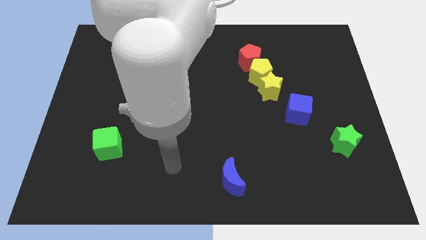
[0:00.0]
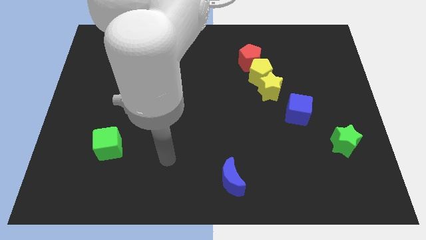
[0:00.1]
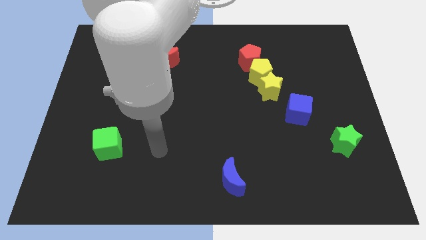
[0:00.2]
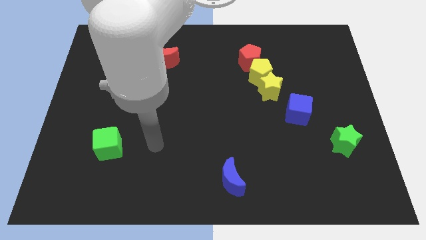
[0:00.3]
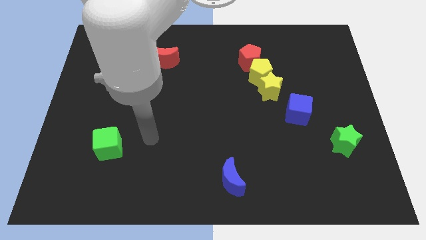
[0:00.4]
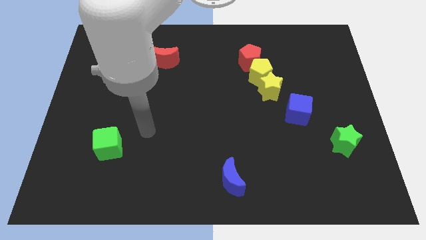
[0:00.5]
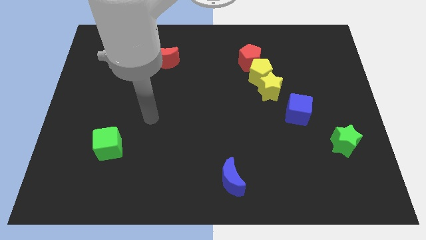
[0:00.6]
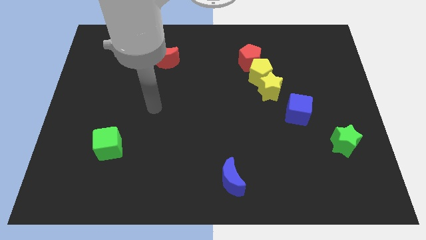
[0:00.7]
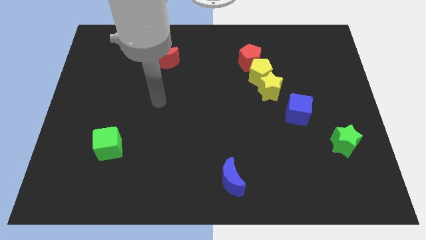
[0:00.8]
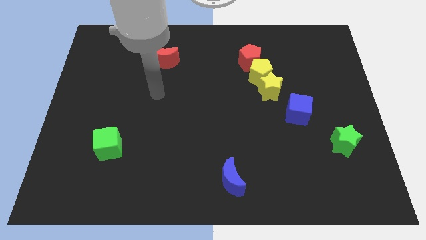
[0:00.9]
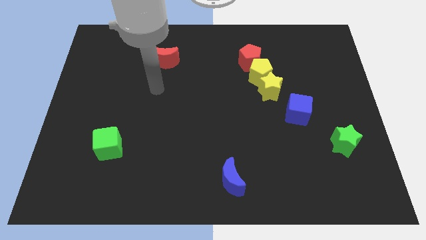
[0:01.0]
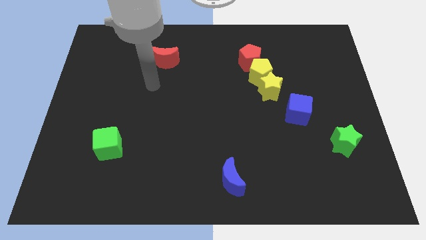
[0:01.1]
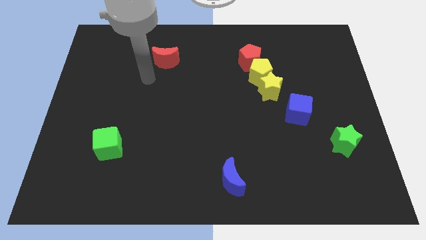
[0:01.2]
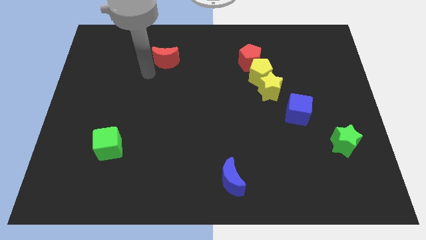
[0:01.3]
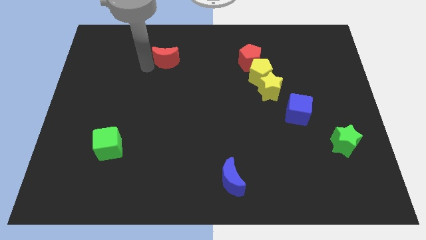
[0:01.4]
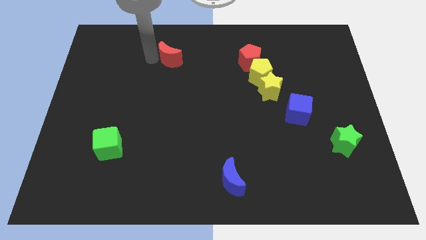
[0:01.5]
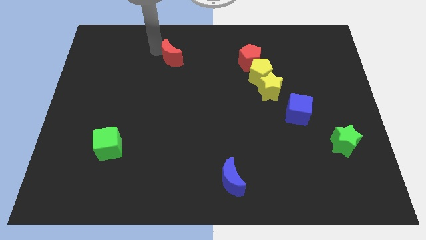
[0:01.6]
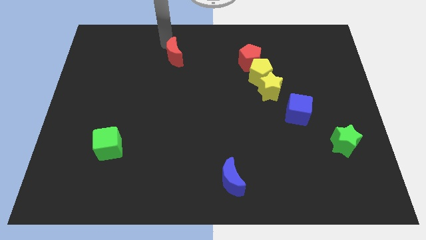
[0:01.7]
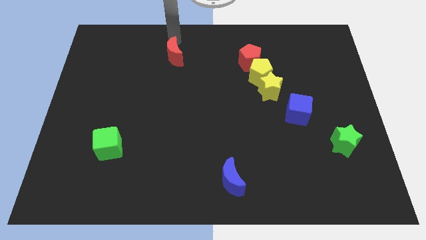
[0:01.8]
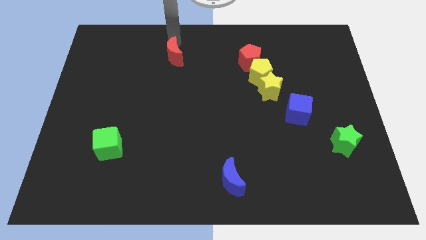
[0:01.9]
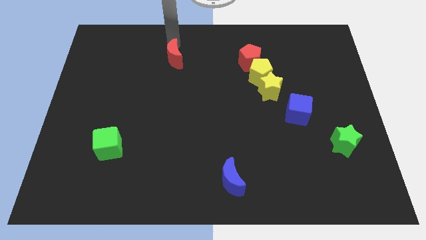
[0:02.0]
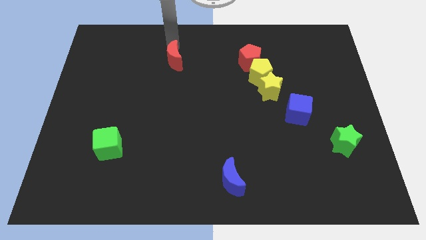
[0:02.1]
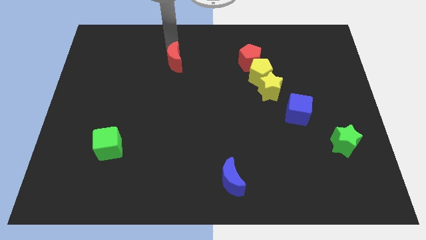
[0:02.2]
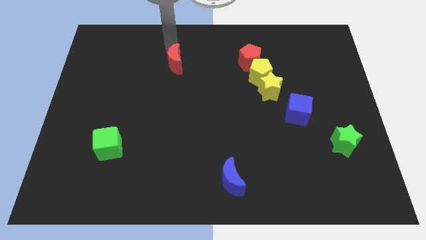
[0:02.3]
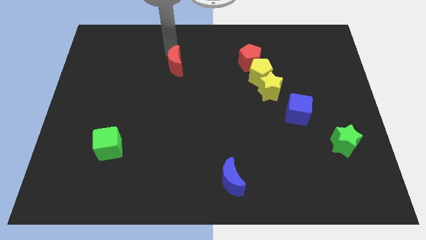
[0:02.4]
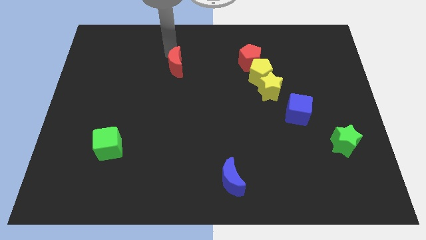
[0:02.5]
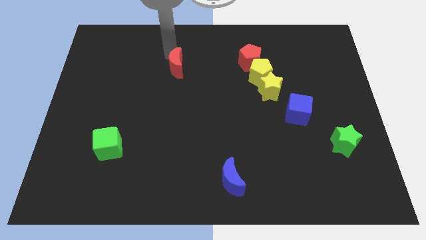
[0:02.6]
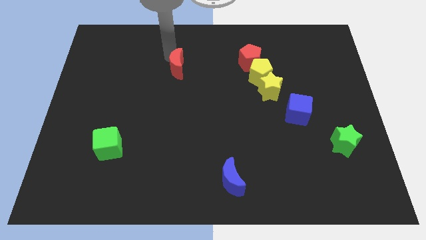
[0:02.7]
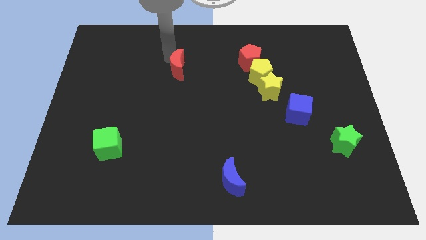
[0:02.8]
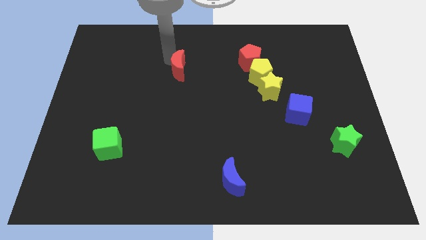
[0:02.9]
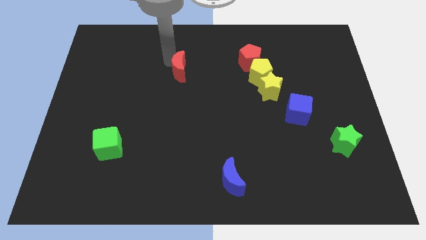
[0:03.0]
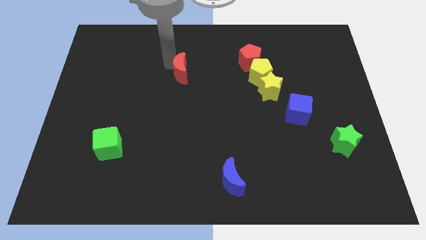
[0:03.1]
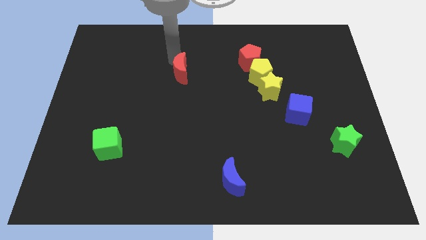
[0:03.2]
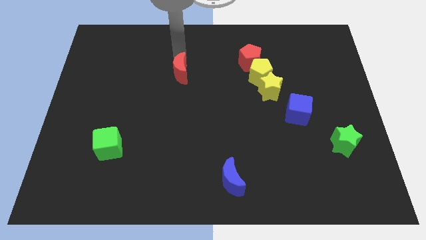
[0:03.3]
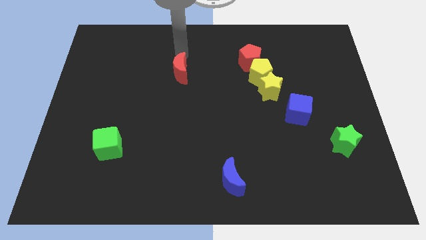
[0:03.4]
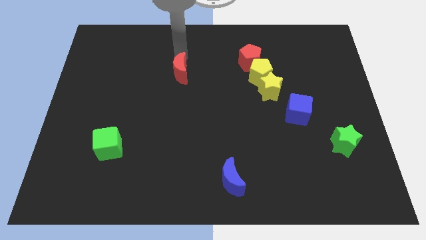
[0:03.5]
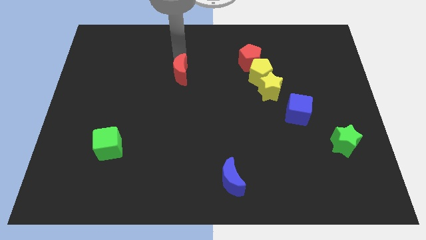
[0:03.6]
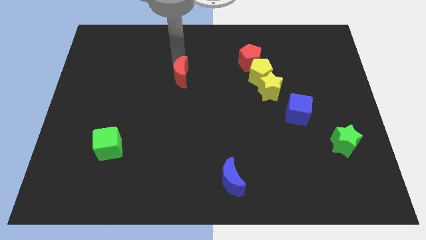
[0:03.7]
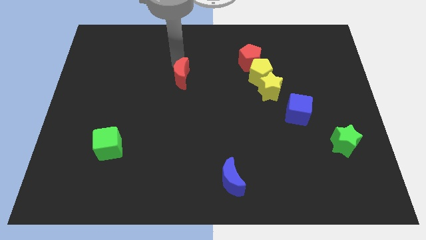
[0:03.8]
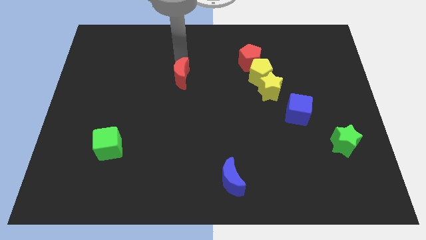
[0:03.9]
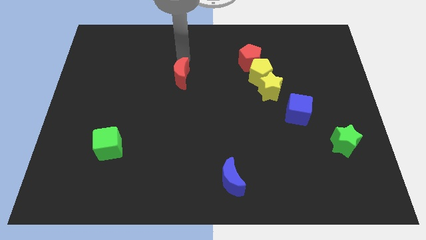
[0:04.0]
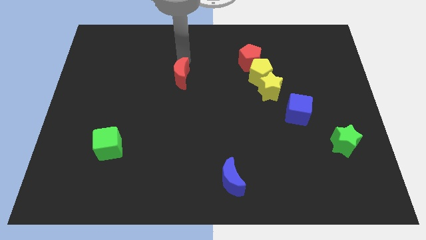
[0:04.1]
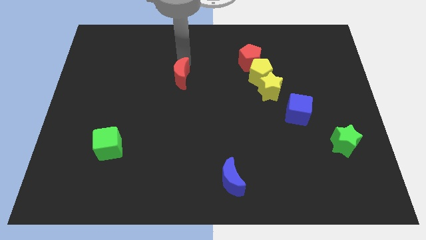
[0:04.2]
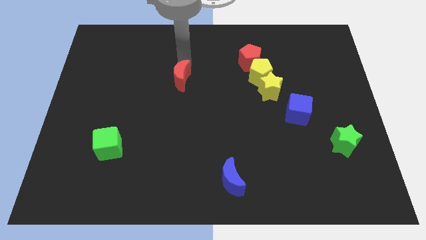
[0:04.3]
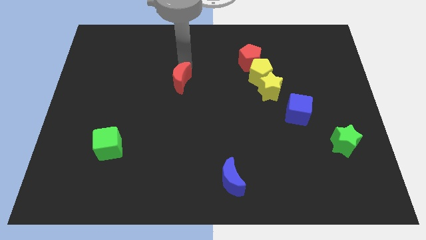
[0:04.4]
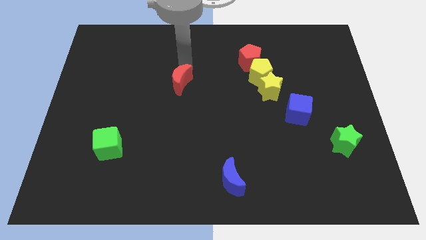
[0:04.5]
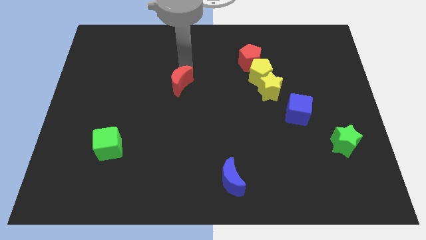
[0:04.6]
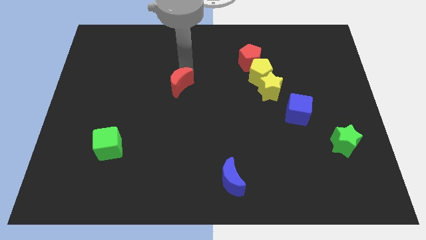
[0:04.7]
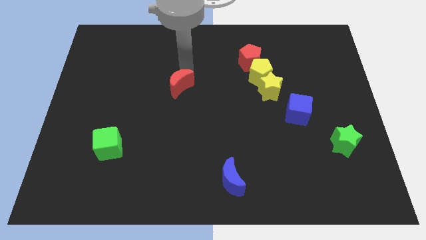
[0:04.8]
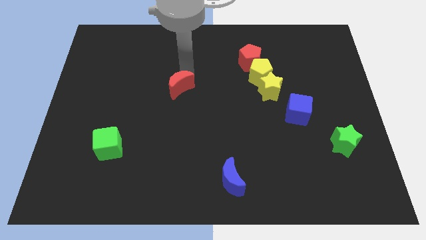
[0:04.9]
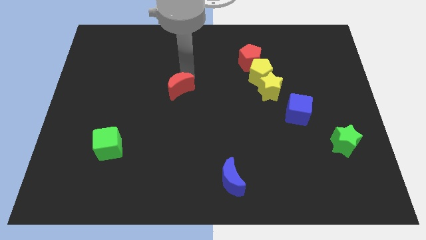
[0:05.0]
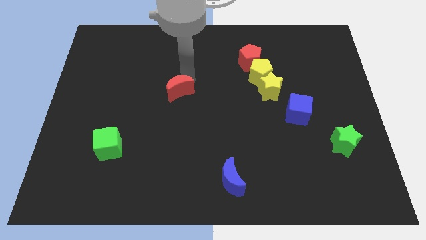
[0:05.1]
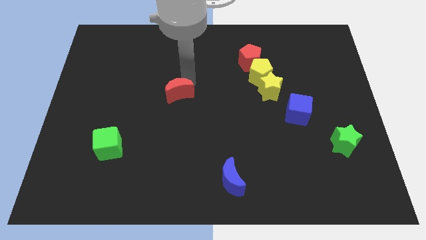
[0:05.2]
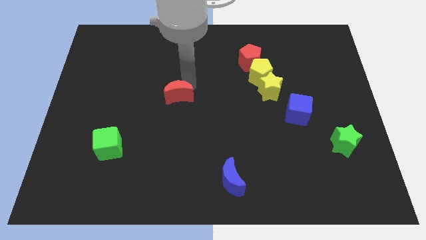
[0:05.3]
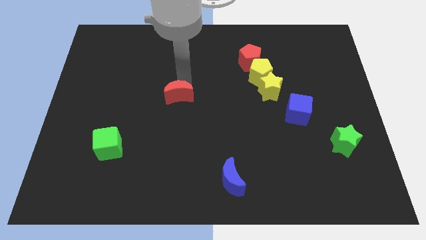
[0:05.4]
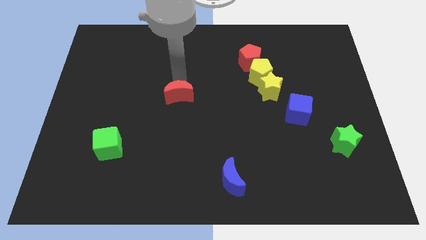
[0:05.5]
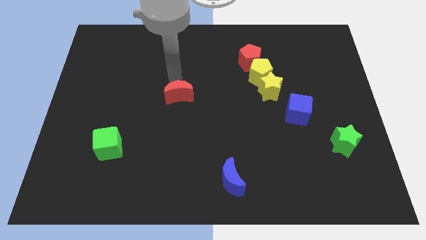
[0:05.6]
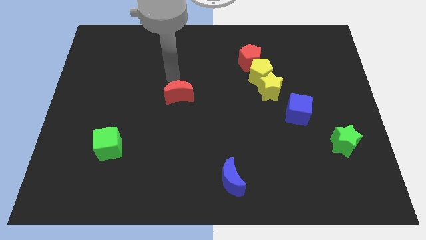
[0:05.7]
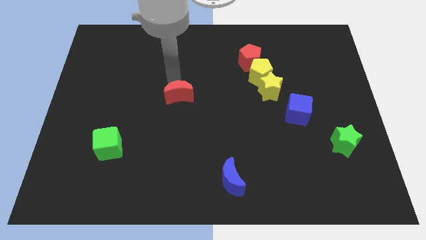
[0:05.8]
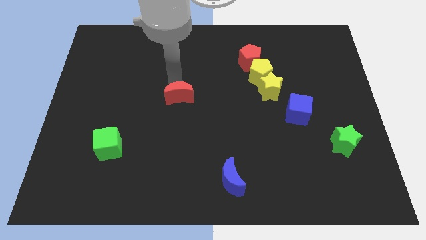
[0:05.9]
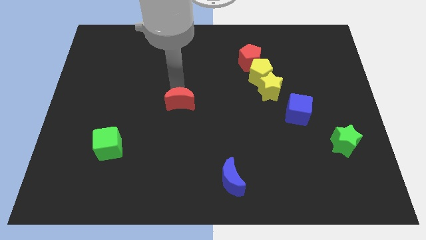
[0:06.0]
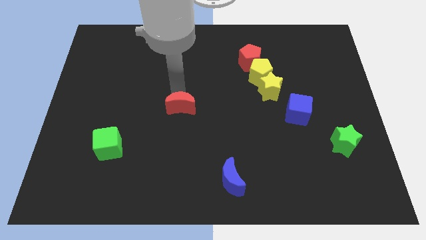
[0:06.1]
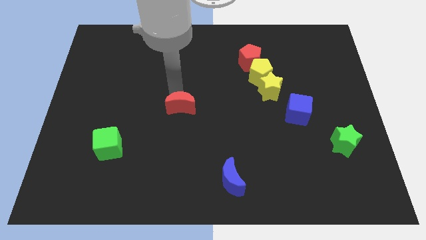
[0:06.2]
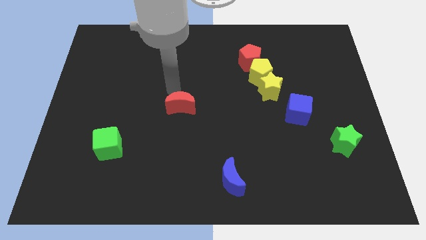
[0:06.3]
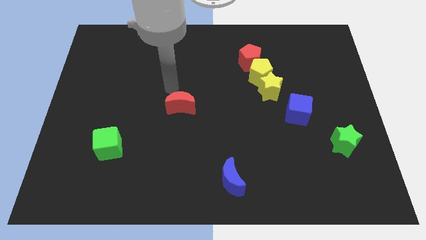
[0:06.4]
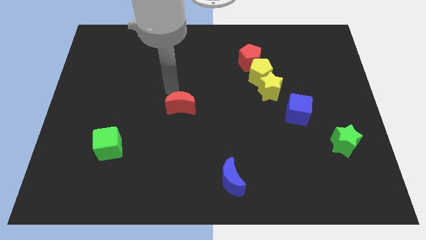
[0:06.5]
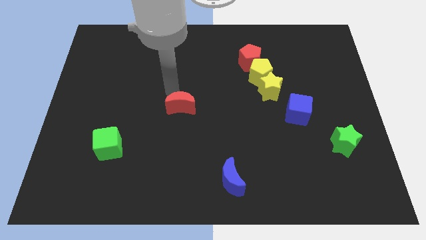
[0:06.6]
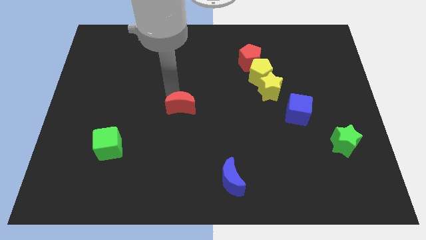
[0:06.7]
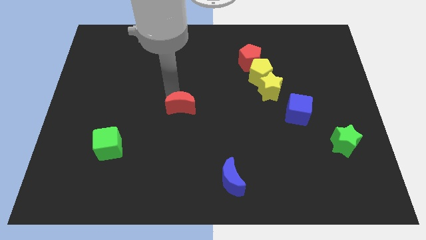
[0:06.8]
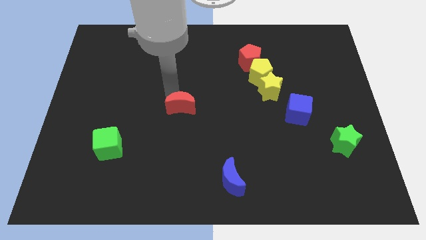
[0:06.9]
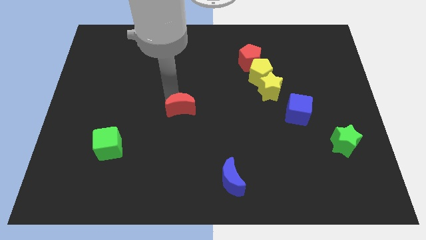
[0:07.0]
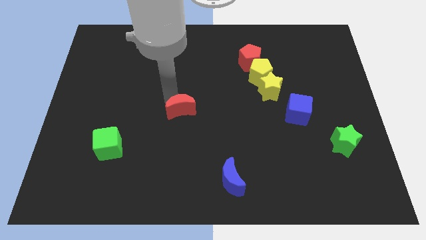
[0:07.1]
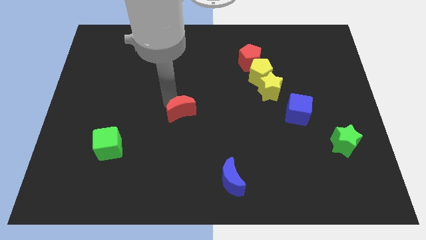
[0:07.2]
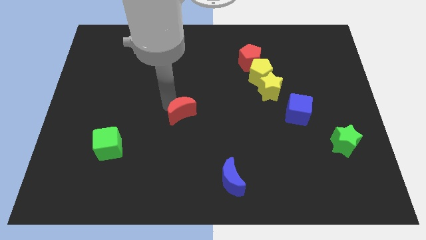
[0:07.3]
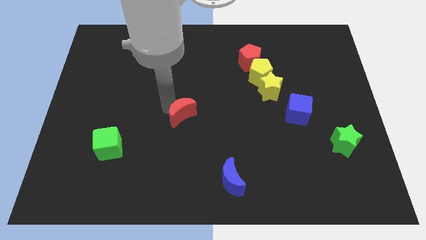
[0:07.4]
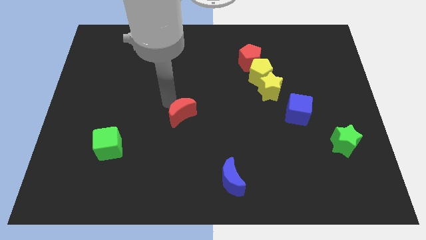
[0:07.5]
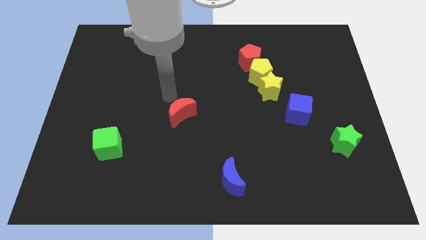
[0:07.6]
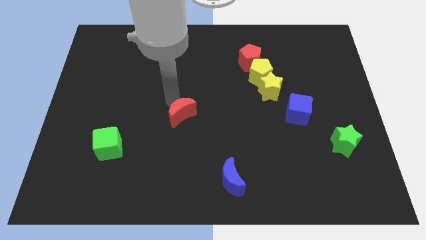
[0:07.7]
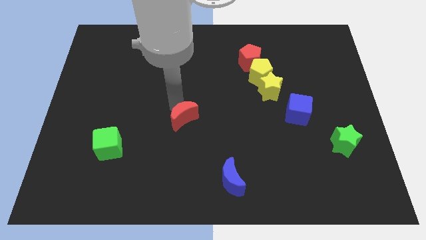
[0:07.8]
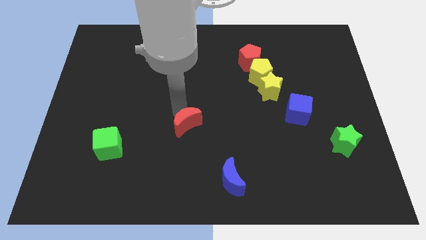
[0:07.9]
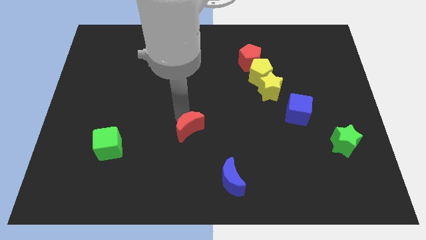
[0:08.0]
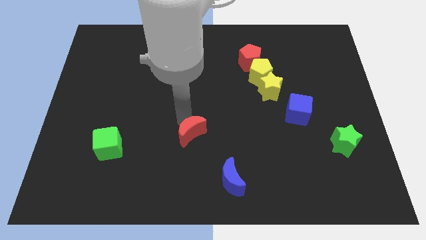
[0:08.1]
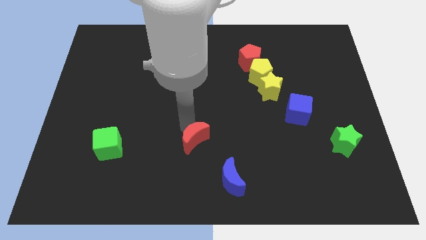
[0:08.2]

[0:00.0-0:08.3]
slide the red moon to the top left side of the blue moon
